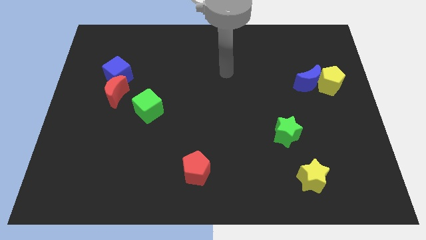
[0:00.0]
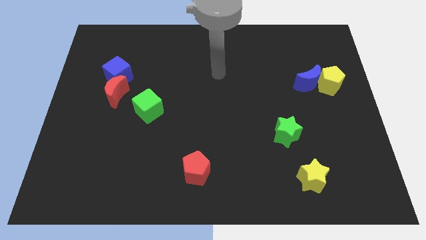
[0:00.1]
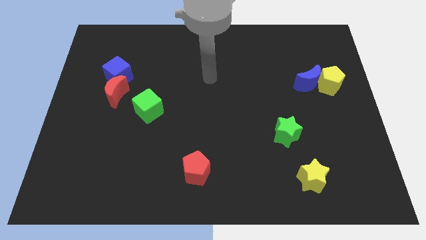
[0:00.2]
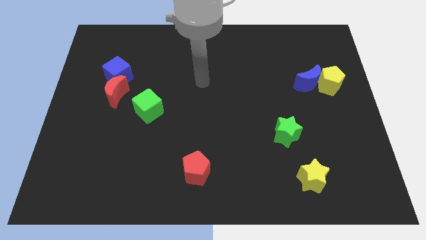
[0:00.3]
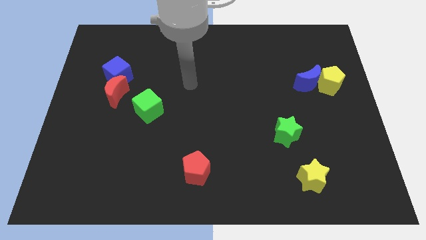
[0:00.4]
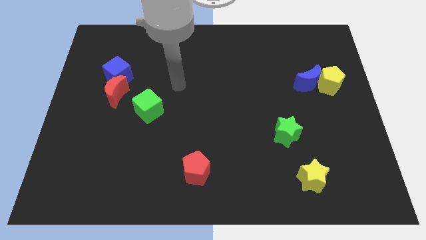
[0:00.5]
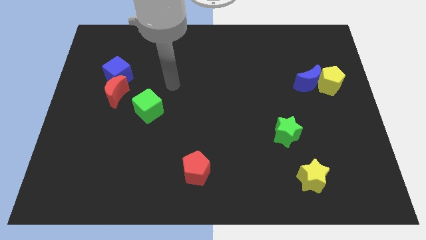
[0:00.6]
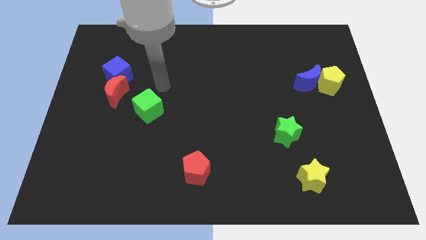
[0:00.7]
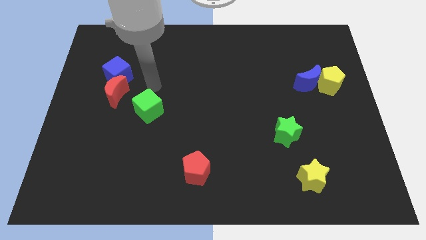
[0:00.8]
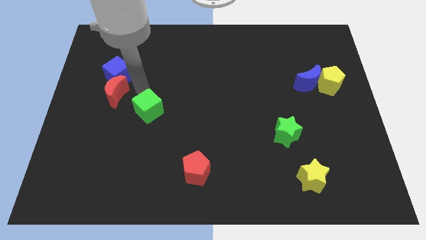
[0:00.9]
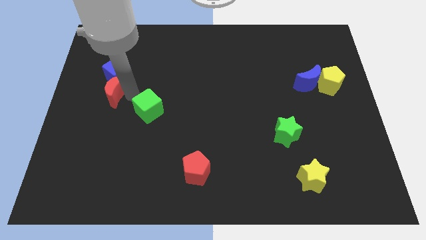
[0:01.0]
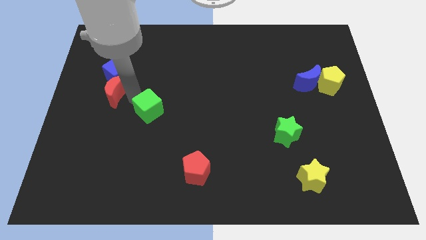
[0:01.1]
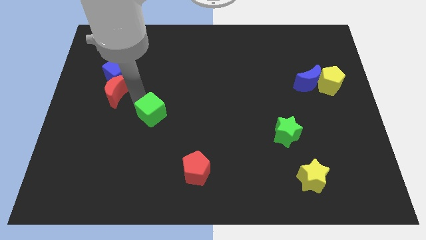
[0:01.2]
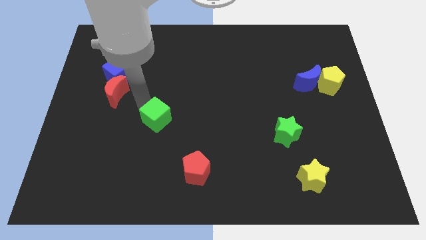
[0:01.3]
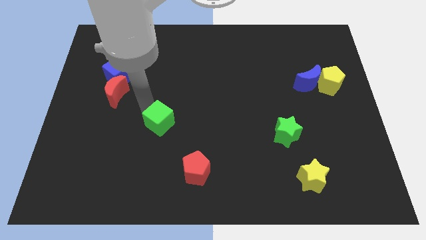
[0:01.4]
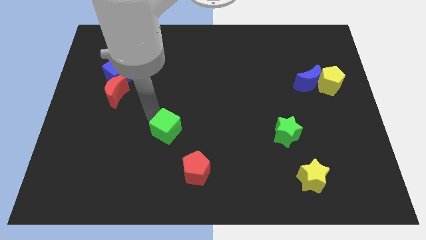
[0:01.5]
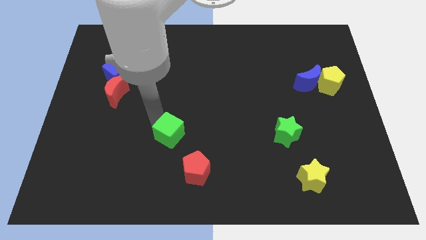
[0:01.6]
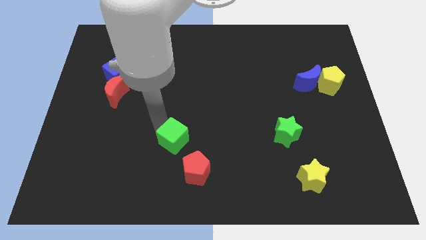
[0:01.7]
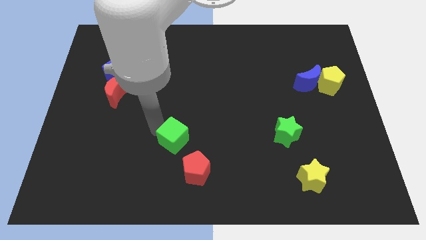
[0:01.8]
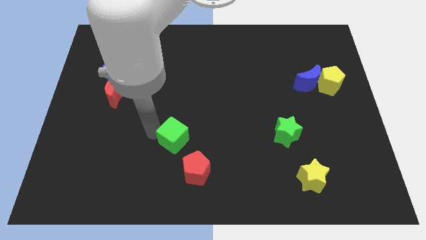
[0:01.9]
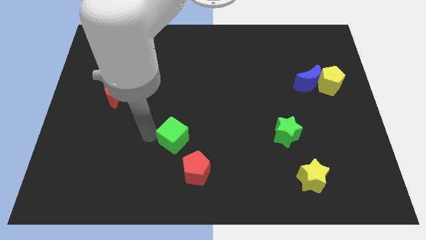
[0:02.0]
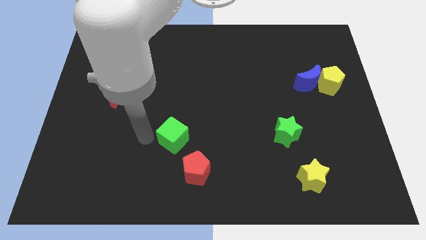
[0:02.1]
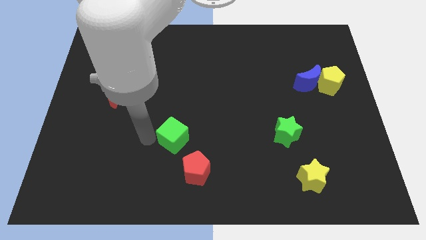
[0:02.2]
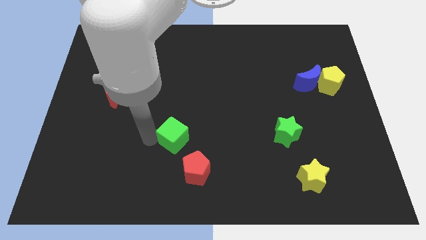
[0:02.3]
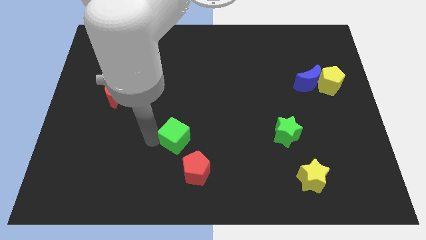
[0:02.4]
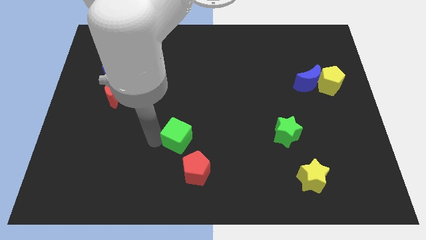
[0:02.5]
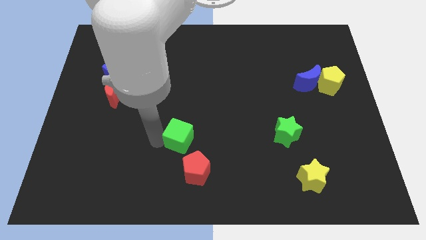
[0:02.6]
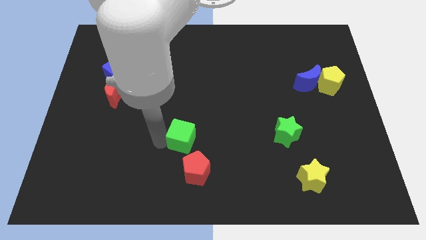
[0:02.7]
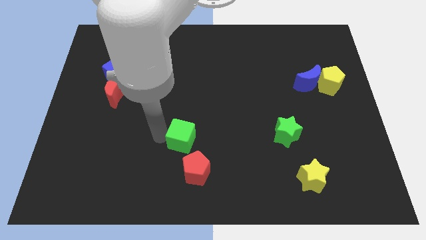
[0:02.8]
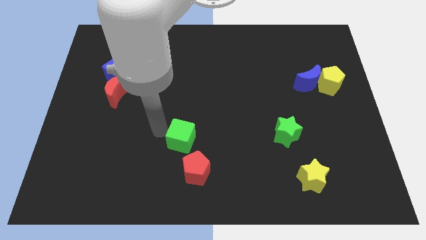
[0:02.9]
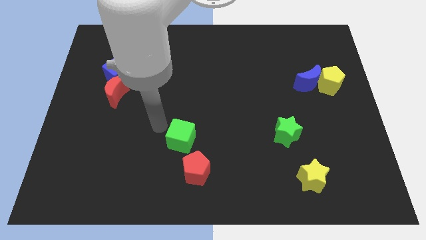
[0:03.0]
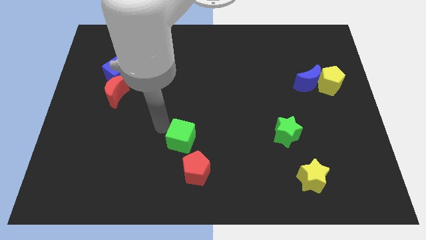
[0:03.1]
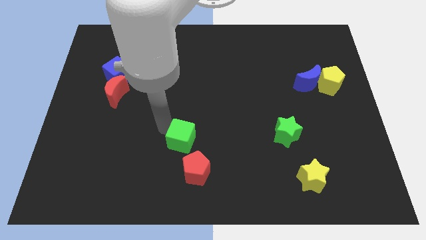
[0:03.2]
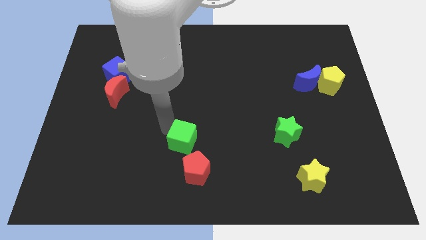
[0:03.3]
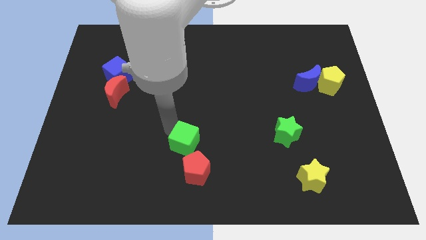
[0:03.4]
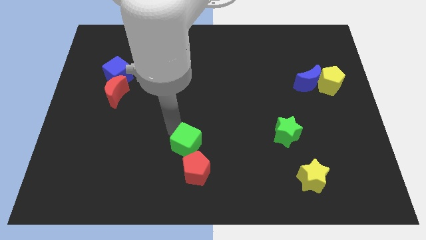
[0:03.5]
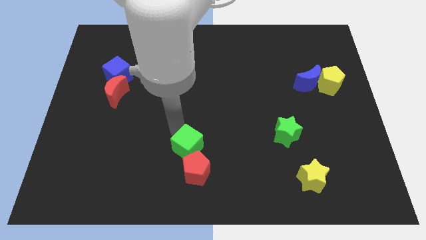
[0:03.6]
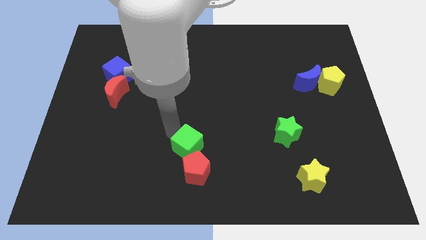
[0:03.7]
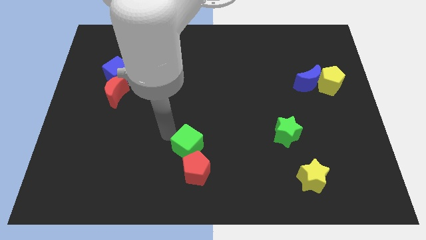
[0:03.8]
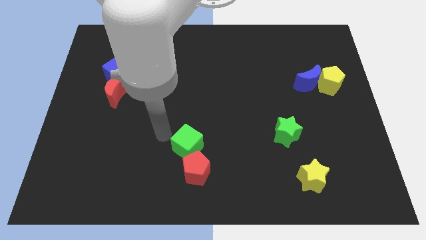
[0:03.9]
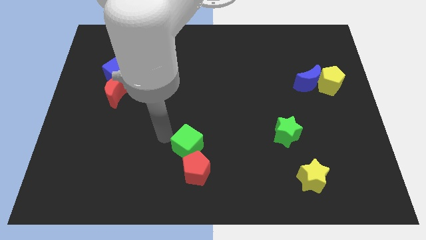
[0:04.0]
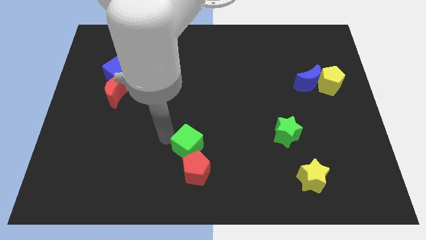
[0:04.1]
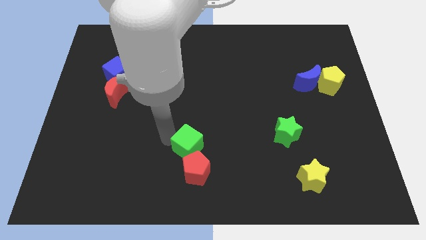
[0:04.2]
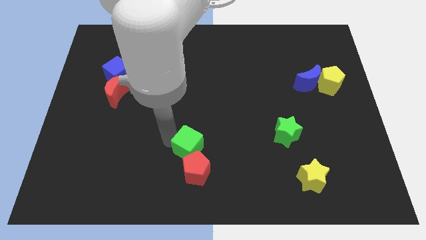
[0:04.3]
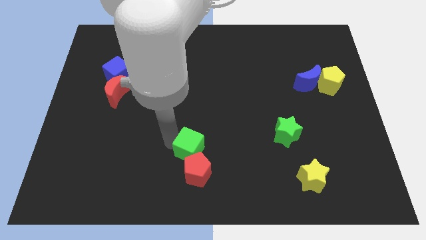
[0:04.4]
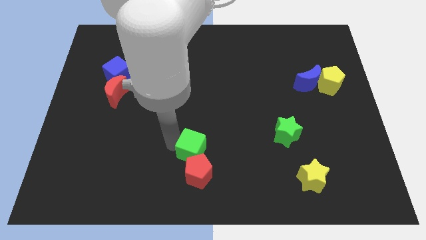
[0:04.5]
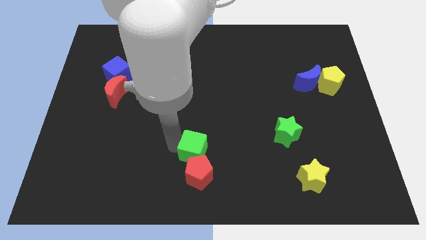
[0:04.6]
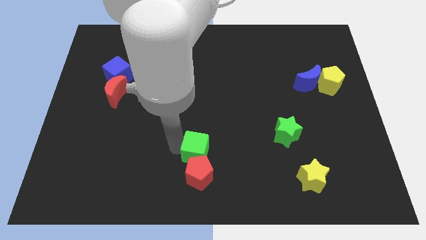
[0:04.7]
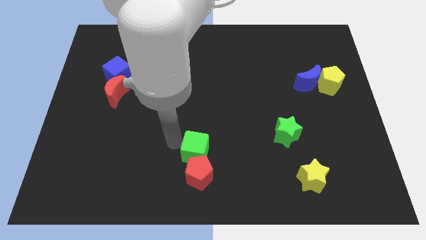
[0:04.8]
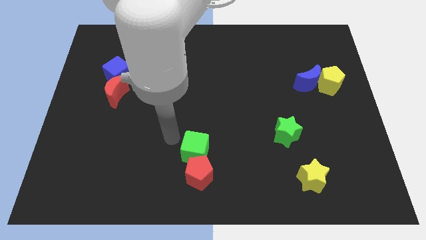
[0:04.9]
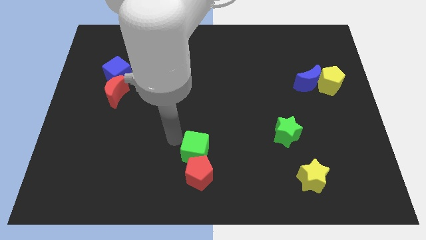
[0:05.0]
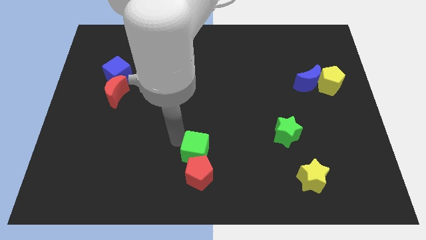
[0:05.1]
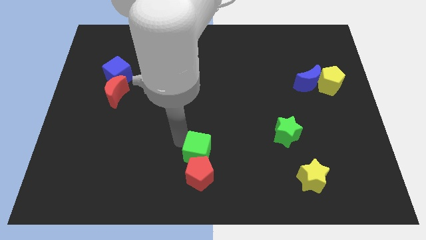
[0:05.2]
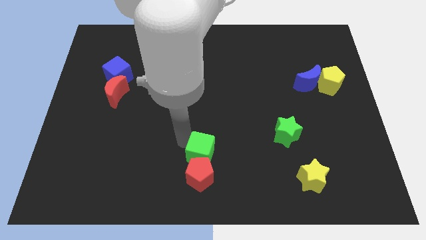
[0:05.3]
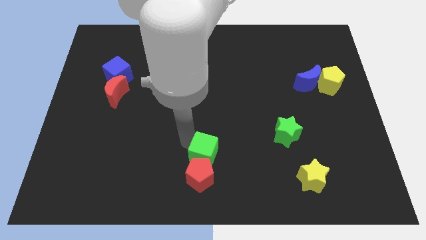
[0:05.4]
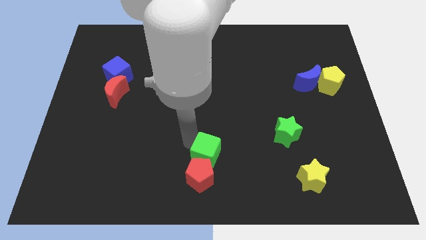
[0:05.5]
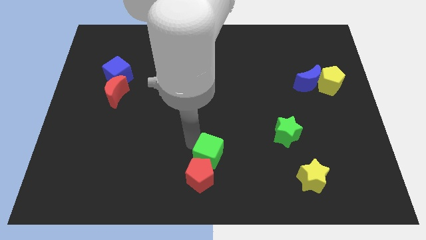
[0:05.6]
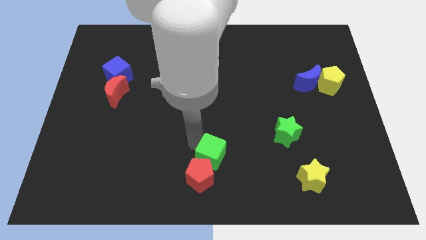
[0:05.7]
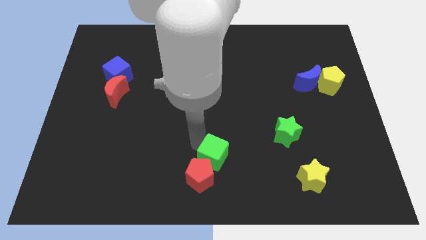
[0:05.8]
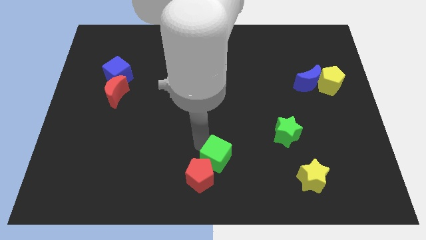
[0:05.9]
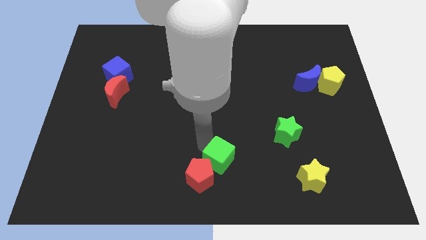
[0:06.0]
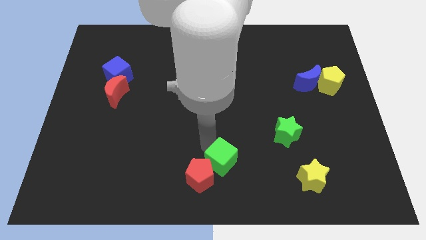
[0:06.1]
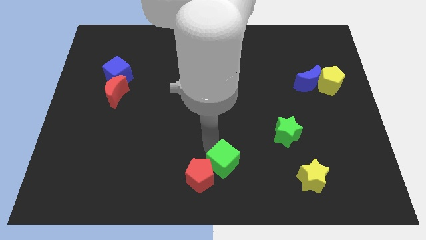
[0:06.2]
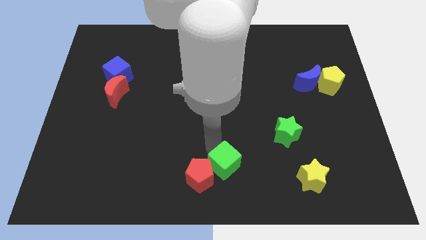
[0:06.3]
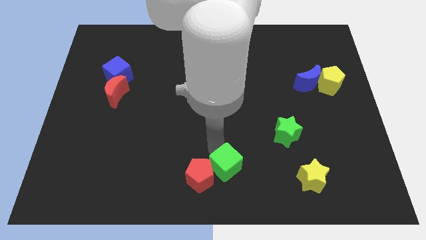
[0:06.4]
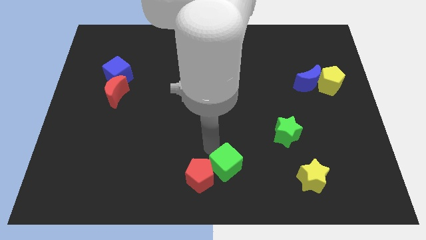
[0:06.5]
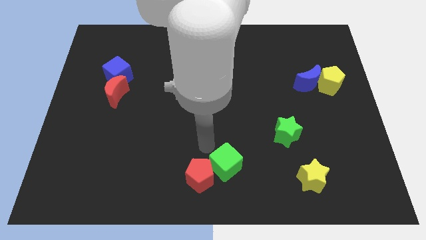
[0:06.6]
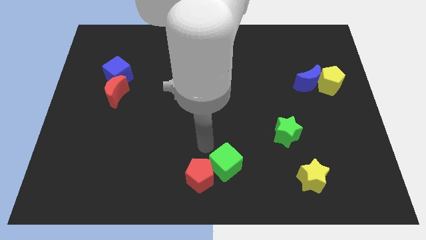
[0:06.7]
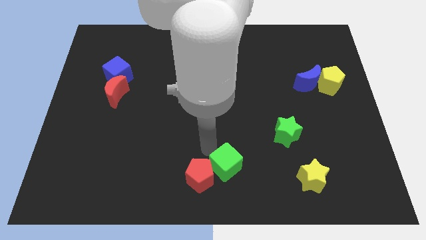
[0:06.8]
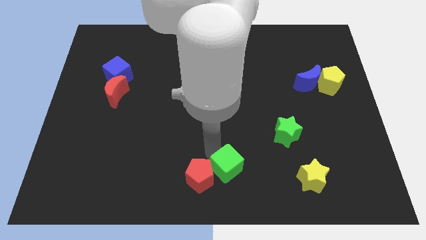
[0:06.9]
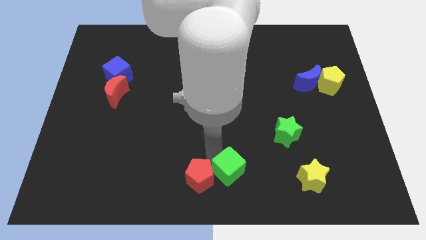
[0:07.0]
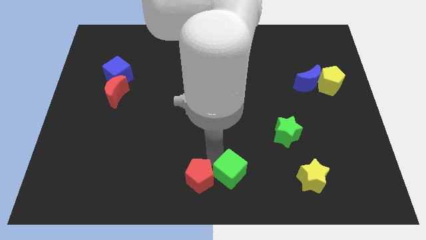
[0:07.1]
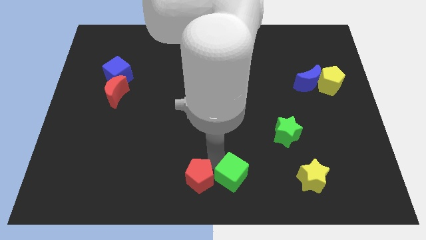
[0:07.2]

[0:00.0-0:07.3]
push the green cube left of the yellow star

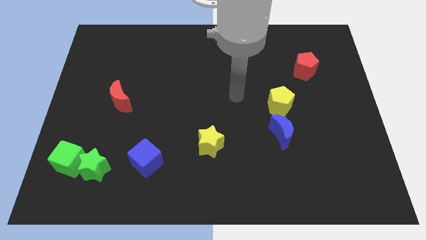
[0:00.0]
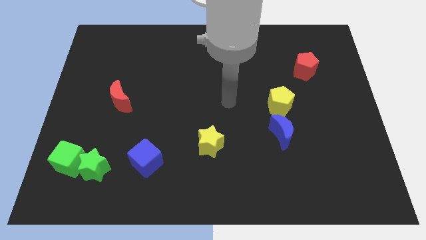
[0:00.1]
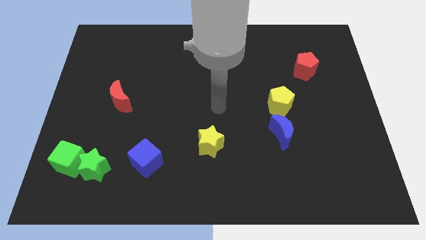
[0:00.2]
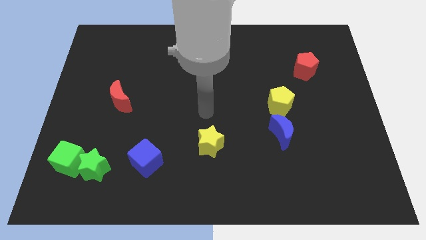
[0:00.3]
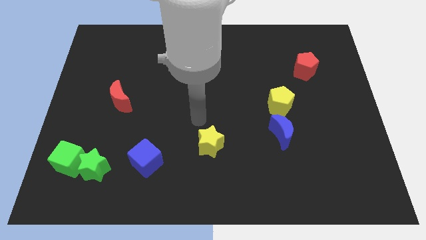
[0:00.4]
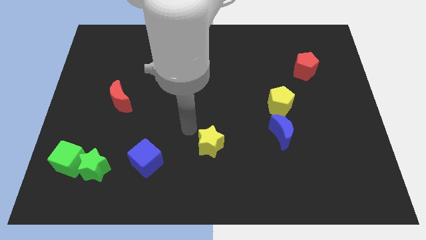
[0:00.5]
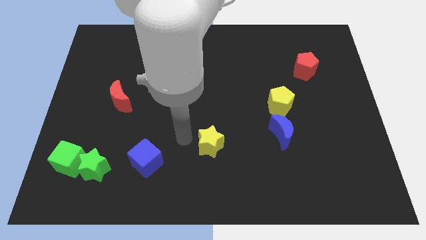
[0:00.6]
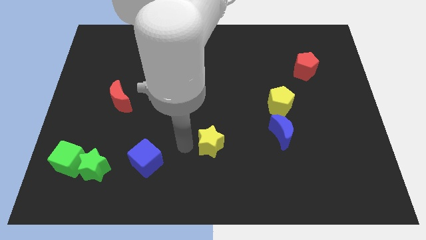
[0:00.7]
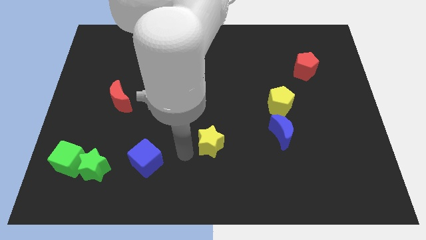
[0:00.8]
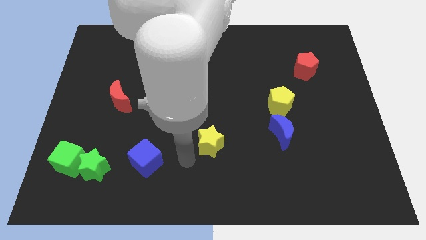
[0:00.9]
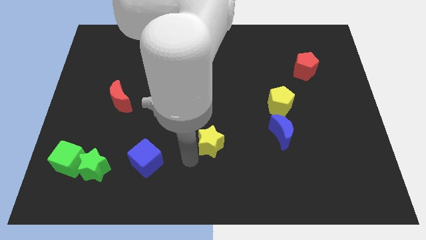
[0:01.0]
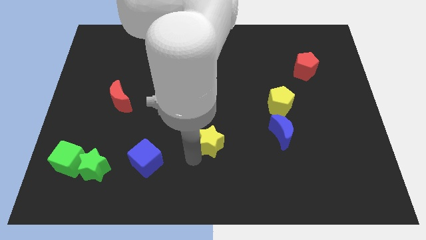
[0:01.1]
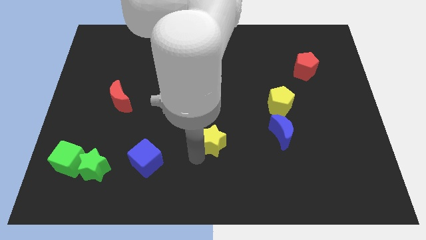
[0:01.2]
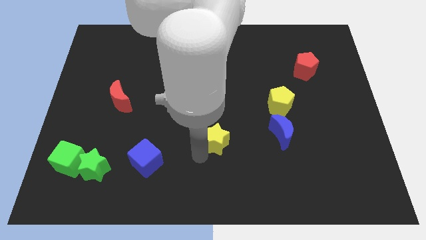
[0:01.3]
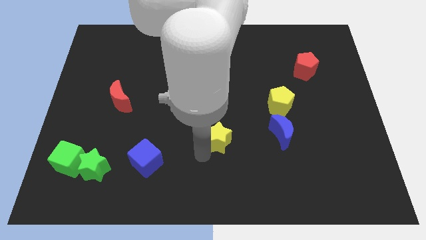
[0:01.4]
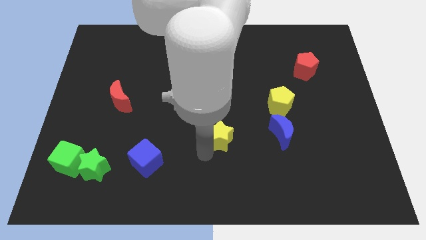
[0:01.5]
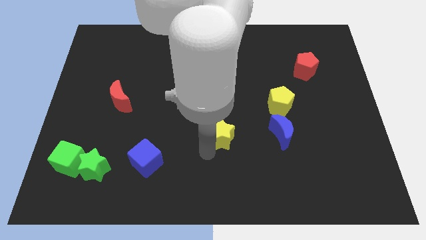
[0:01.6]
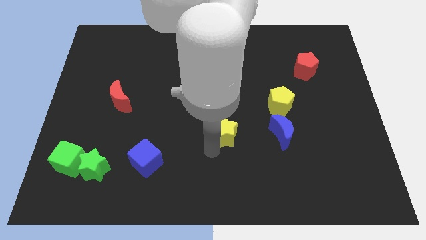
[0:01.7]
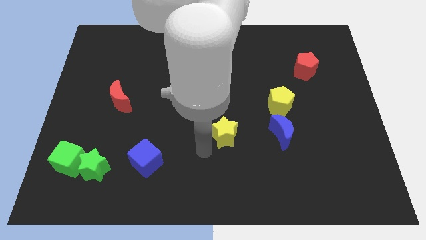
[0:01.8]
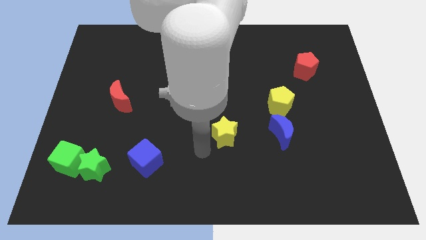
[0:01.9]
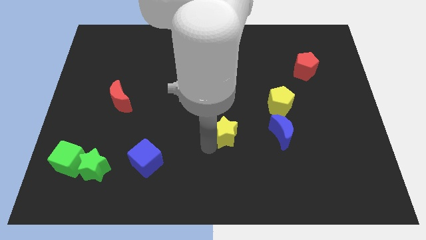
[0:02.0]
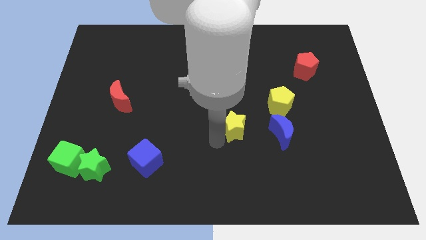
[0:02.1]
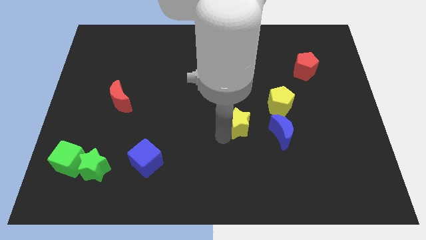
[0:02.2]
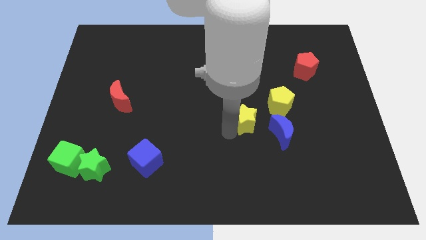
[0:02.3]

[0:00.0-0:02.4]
move the yellow star to the top left side of the blue moon
